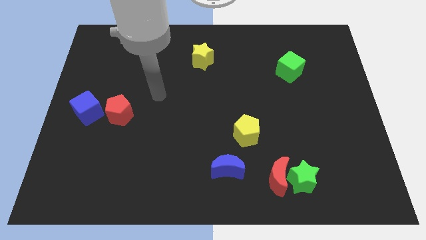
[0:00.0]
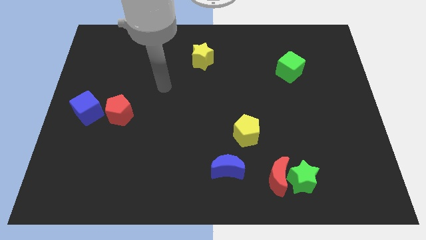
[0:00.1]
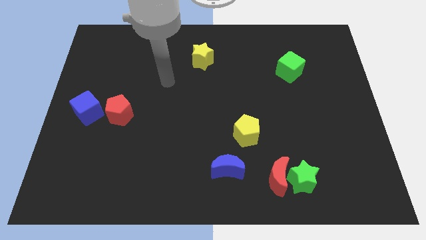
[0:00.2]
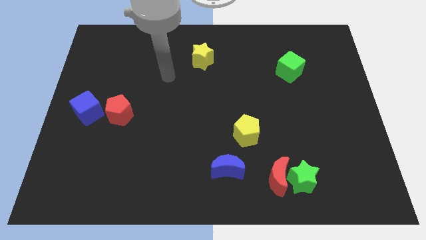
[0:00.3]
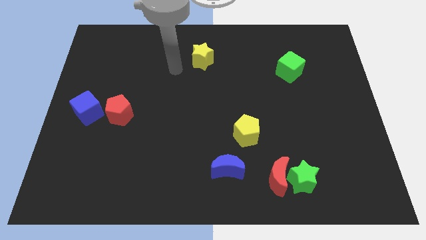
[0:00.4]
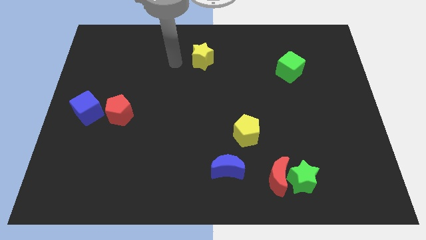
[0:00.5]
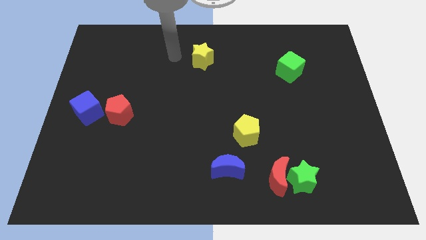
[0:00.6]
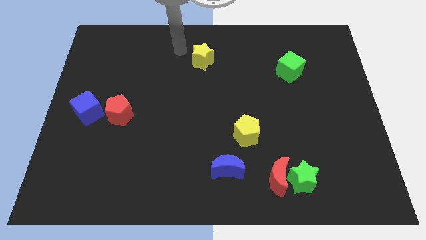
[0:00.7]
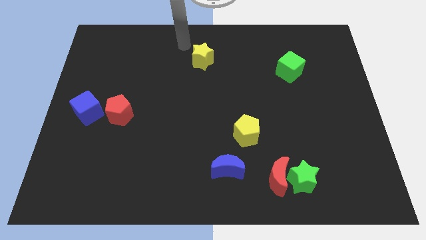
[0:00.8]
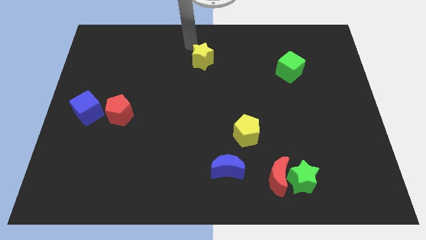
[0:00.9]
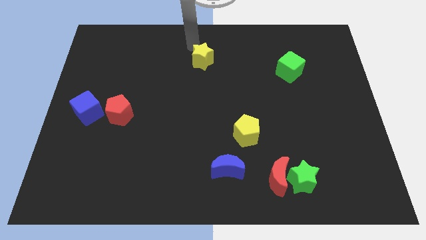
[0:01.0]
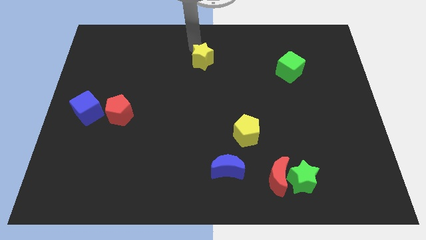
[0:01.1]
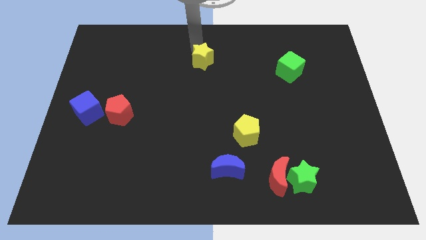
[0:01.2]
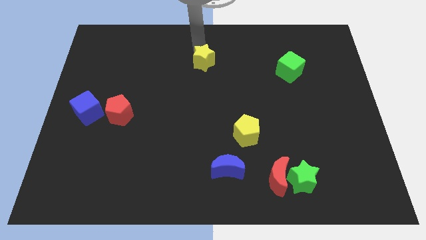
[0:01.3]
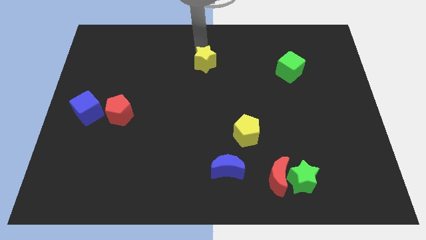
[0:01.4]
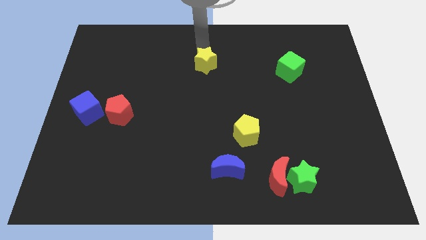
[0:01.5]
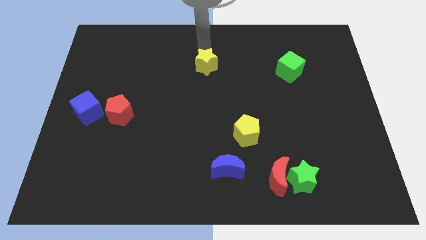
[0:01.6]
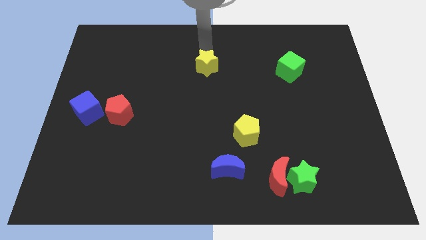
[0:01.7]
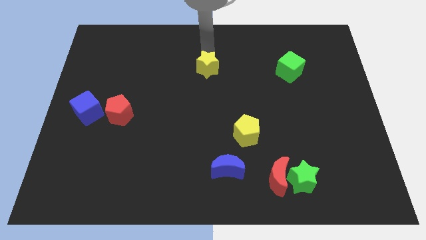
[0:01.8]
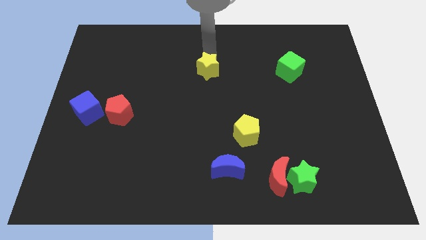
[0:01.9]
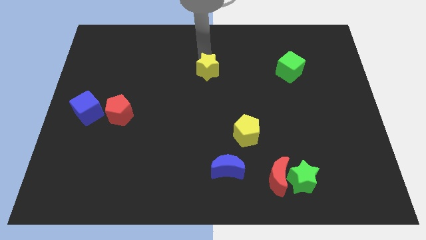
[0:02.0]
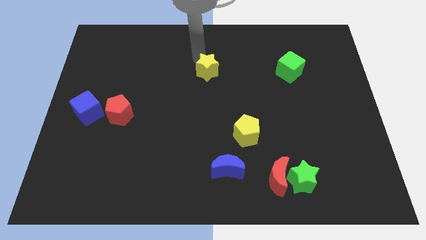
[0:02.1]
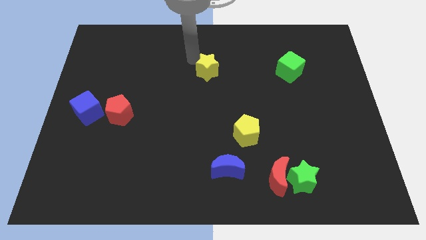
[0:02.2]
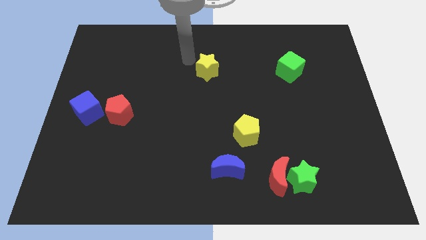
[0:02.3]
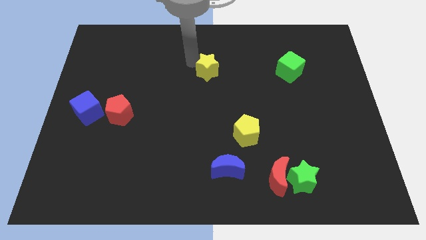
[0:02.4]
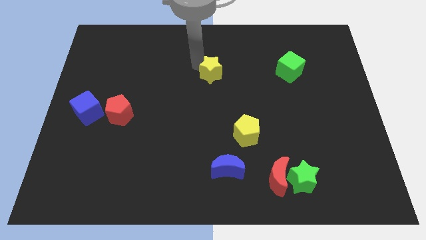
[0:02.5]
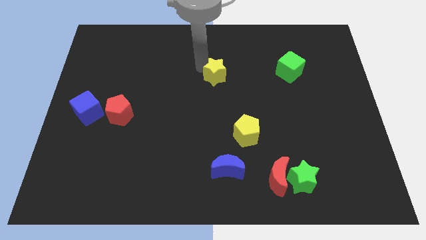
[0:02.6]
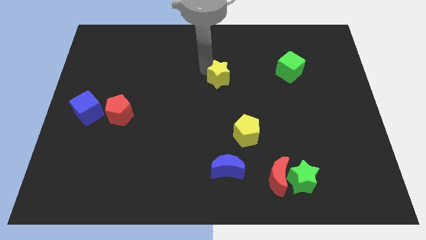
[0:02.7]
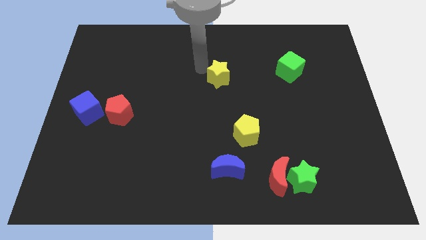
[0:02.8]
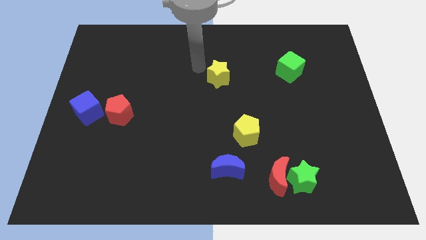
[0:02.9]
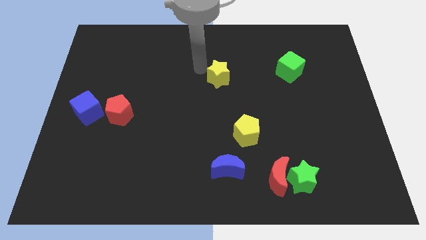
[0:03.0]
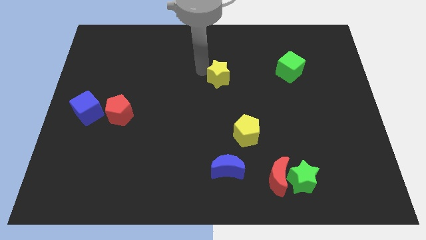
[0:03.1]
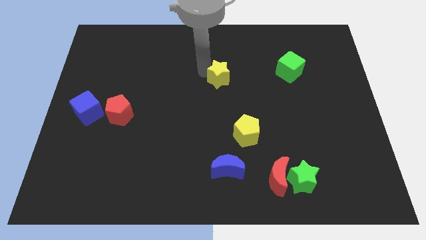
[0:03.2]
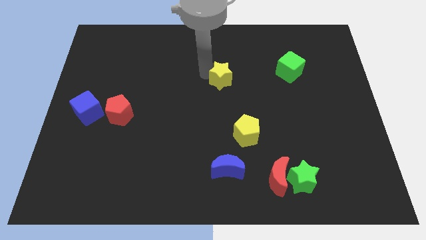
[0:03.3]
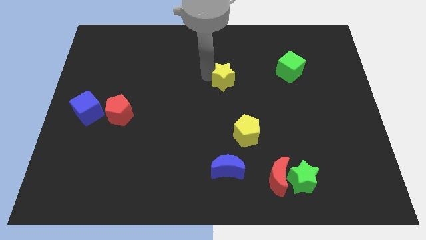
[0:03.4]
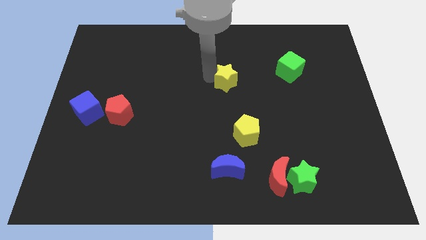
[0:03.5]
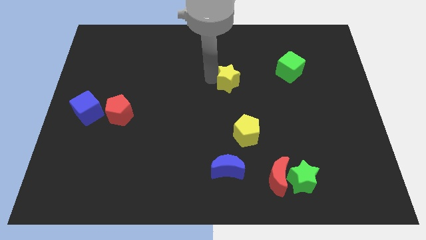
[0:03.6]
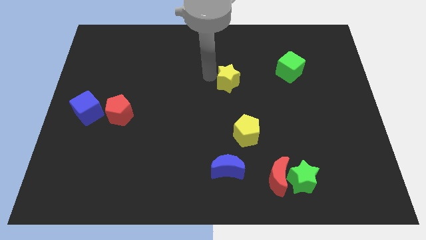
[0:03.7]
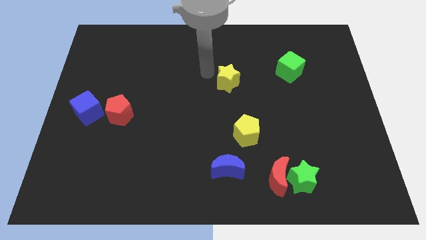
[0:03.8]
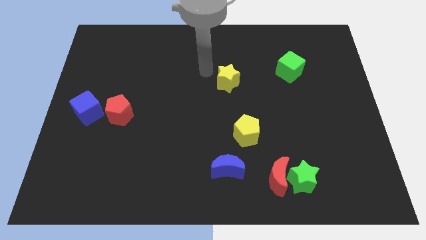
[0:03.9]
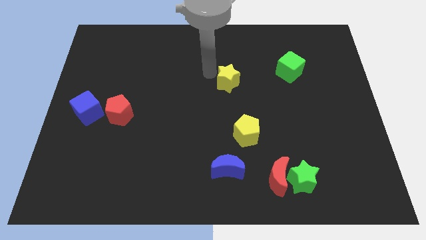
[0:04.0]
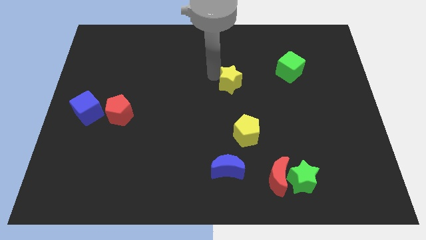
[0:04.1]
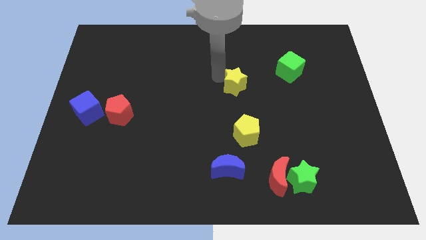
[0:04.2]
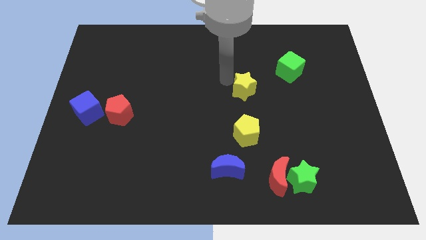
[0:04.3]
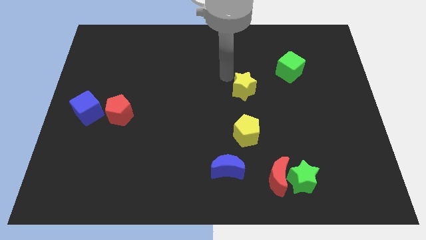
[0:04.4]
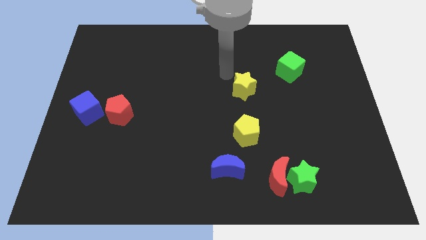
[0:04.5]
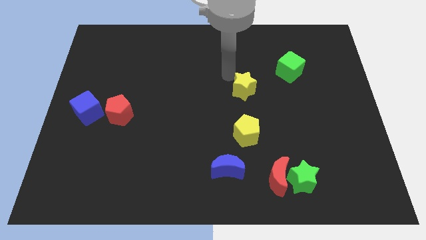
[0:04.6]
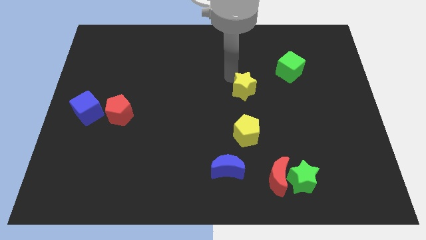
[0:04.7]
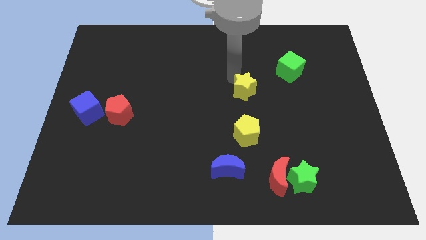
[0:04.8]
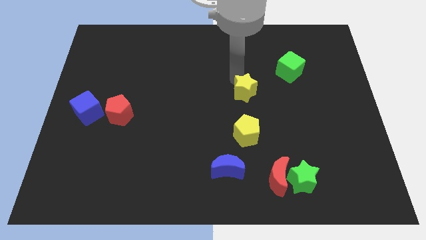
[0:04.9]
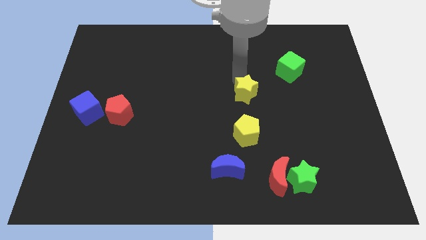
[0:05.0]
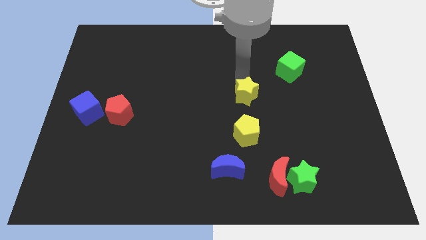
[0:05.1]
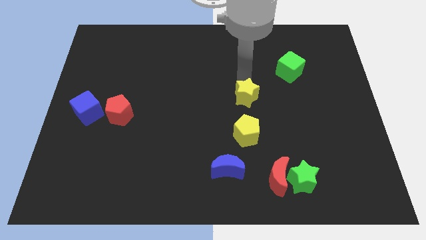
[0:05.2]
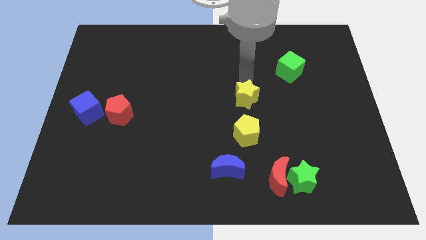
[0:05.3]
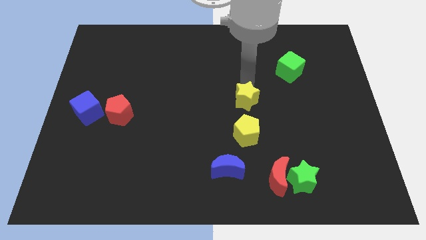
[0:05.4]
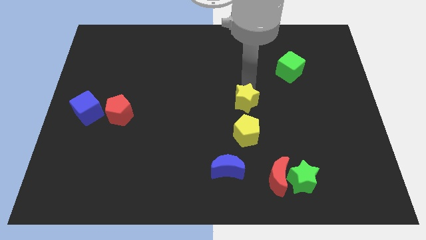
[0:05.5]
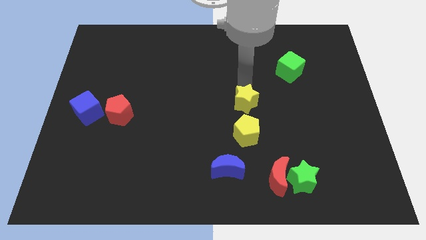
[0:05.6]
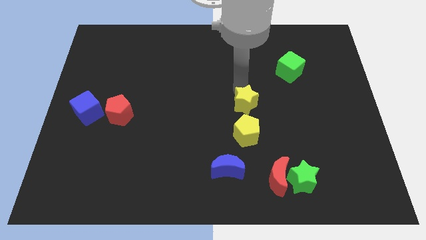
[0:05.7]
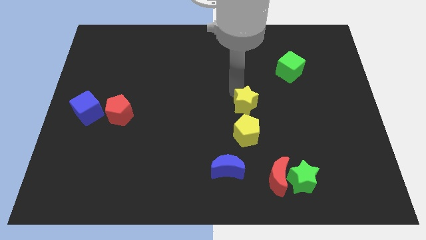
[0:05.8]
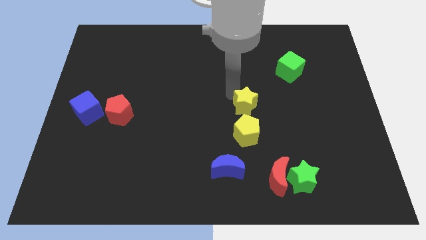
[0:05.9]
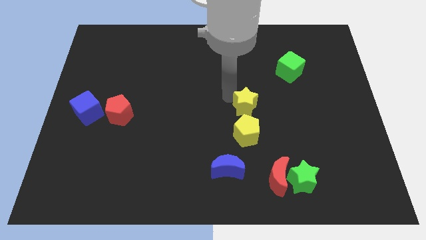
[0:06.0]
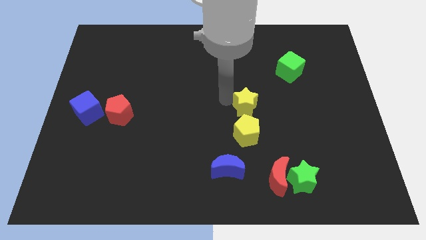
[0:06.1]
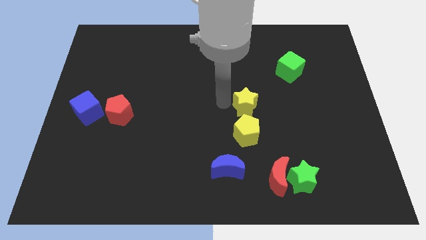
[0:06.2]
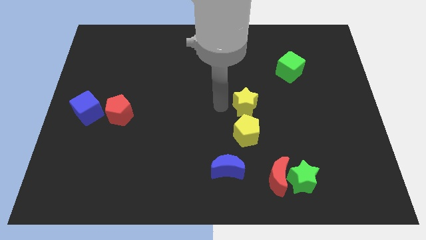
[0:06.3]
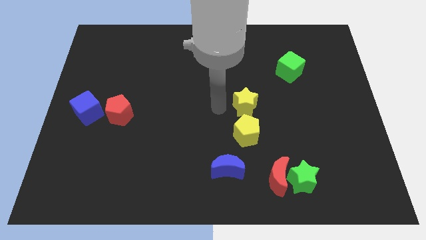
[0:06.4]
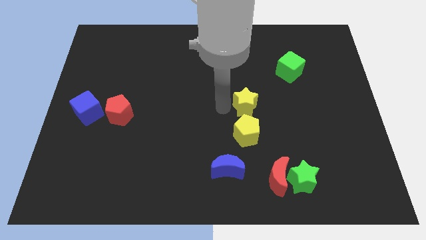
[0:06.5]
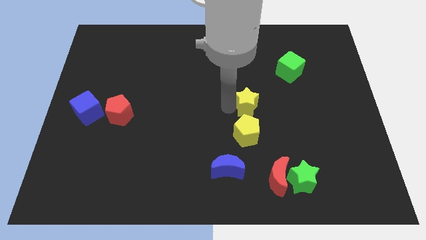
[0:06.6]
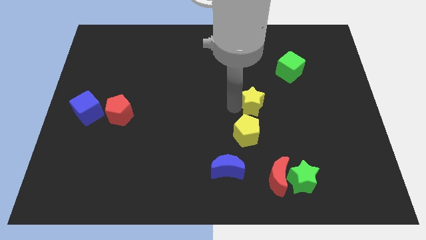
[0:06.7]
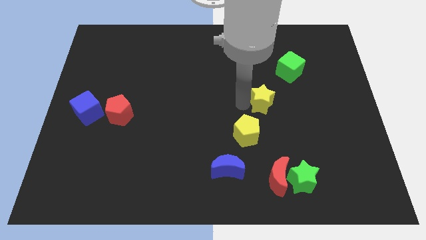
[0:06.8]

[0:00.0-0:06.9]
slide the yellow star diagonally downwards and right

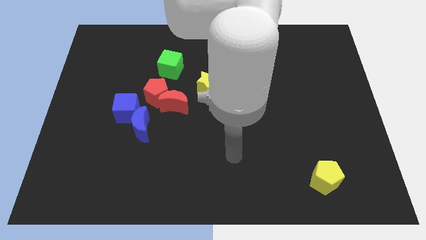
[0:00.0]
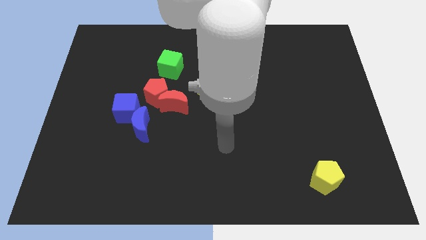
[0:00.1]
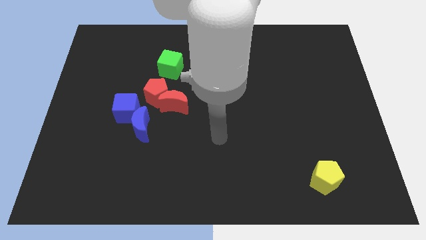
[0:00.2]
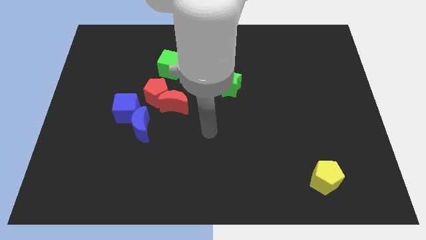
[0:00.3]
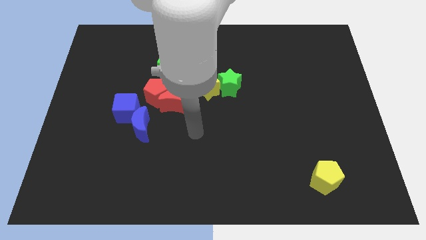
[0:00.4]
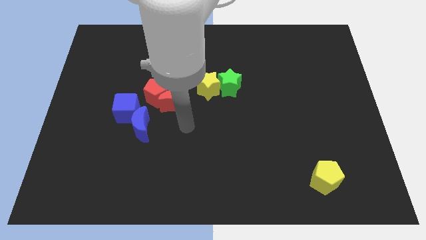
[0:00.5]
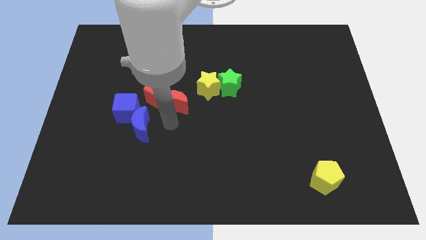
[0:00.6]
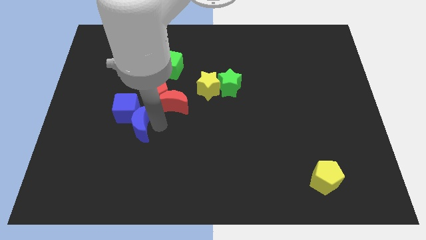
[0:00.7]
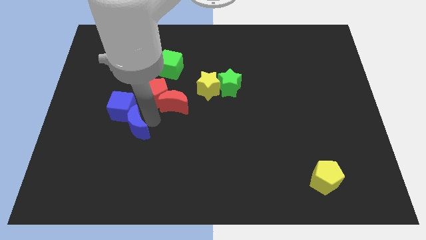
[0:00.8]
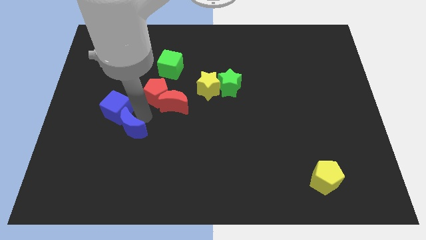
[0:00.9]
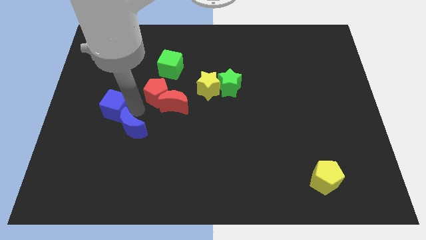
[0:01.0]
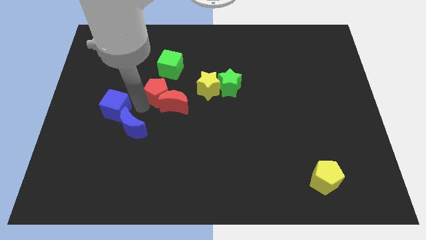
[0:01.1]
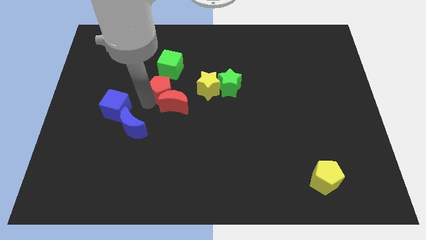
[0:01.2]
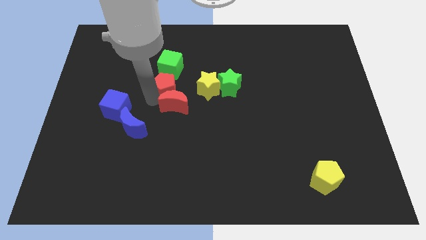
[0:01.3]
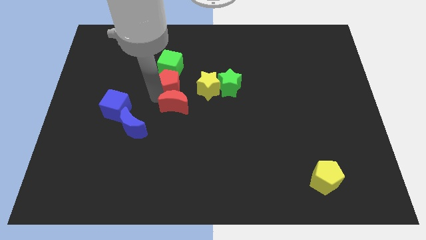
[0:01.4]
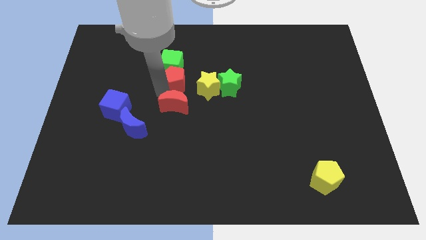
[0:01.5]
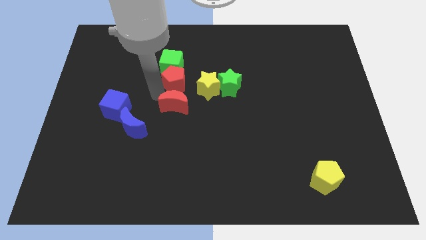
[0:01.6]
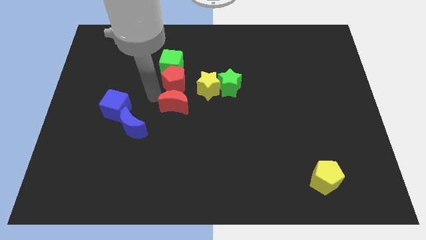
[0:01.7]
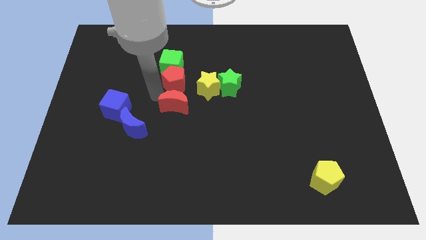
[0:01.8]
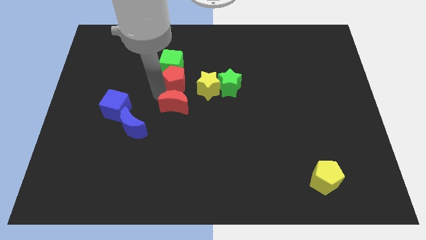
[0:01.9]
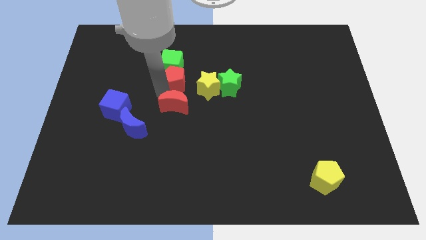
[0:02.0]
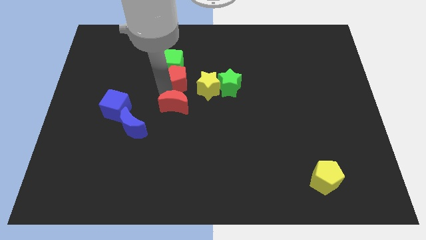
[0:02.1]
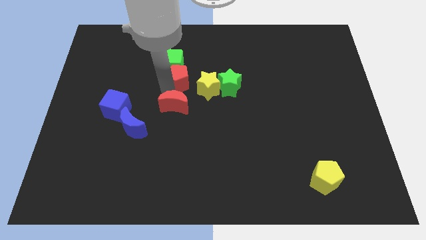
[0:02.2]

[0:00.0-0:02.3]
slide the red pentagon up and right a little bit
